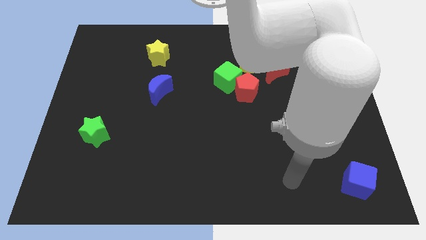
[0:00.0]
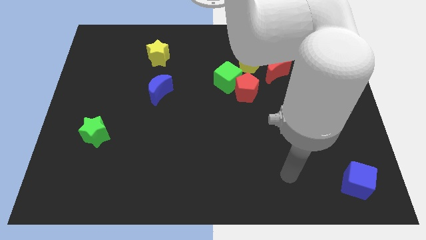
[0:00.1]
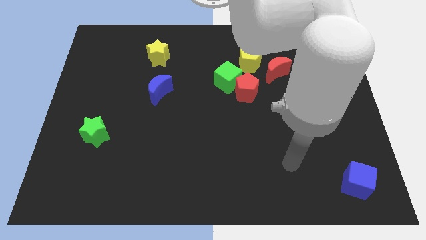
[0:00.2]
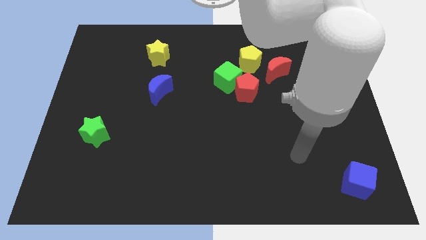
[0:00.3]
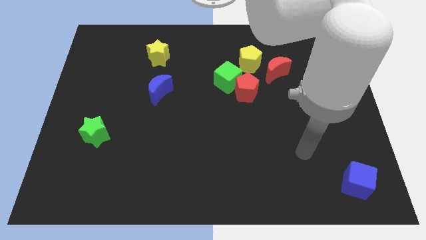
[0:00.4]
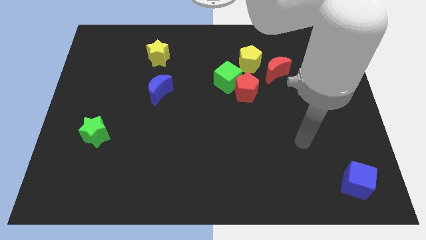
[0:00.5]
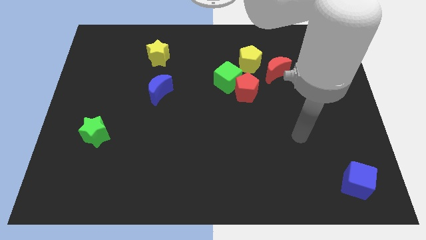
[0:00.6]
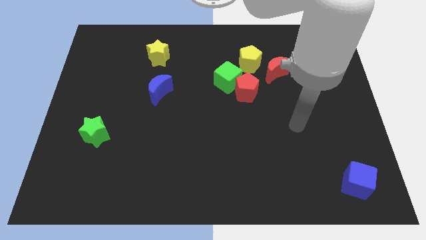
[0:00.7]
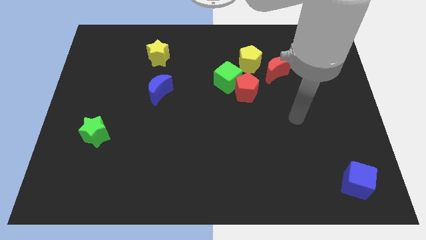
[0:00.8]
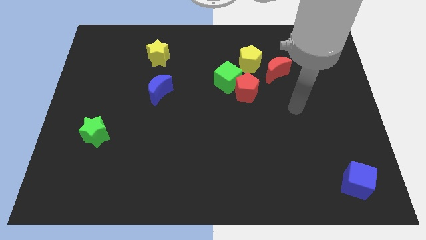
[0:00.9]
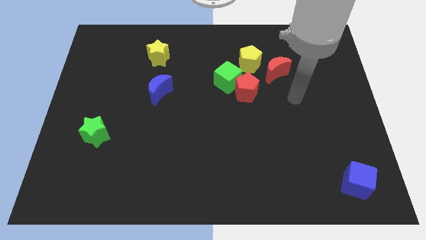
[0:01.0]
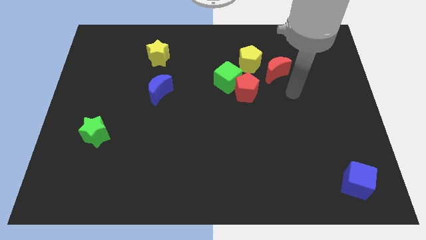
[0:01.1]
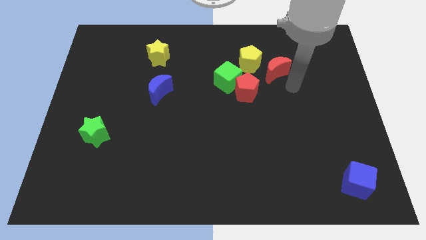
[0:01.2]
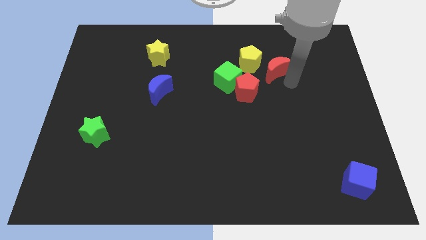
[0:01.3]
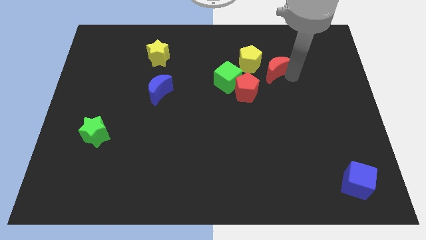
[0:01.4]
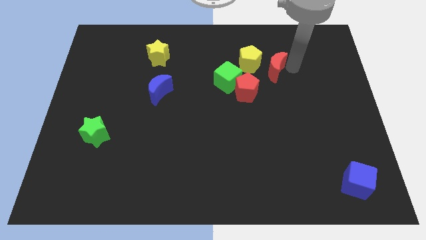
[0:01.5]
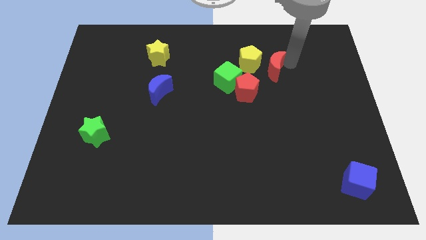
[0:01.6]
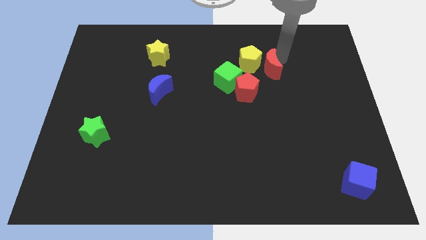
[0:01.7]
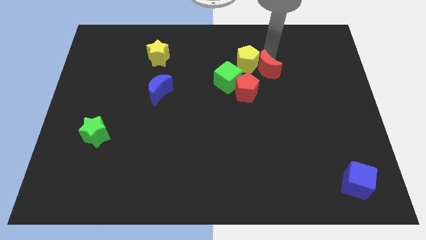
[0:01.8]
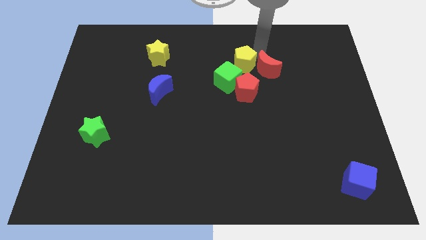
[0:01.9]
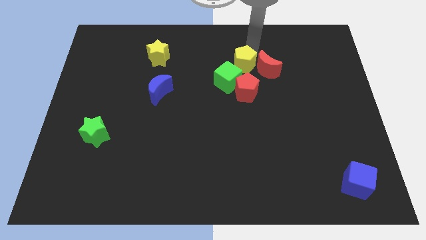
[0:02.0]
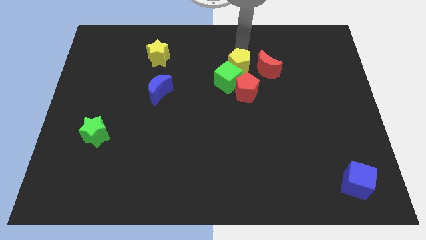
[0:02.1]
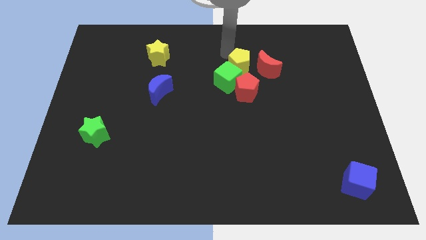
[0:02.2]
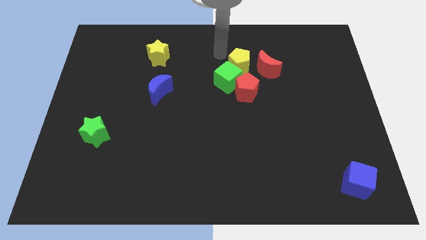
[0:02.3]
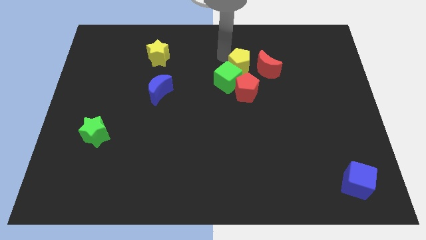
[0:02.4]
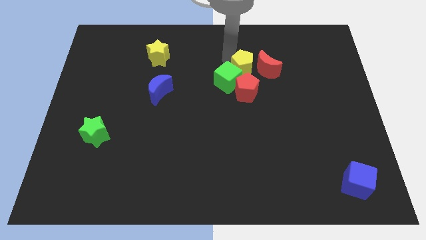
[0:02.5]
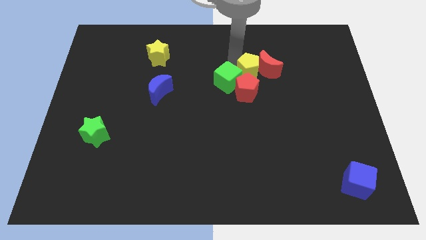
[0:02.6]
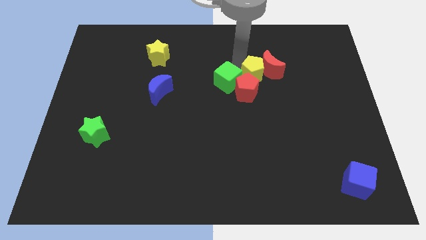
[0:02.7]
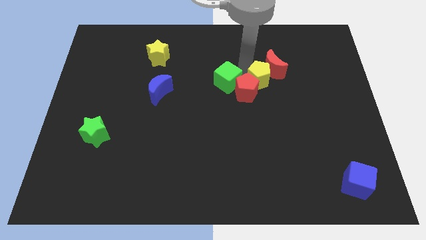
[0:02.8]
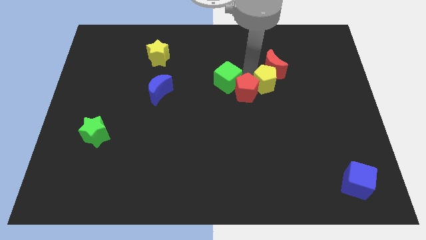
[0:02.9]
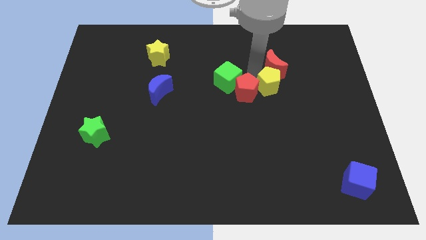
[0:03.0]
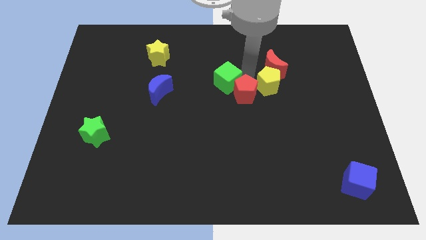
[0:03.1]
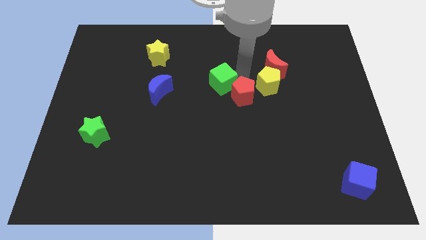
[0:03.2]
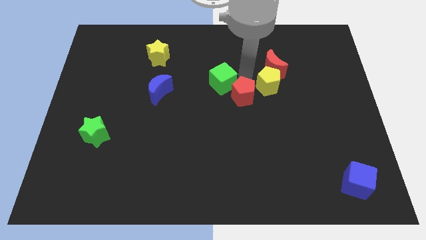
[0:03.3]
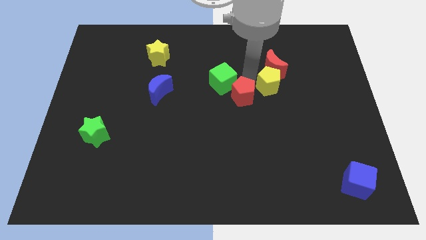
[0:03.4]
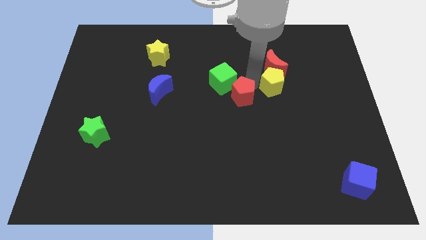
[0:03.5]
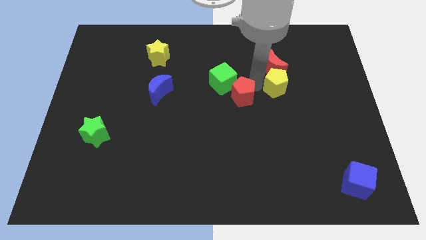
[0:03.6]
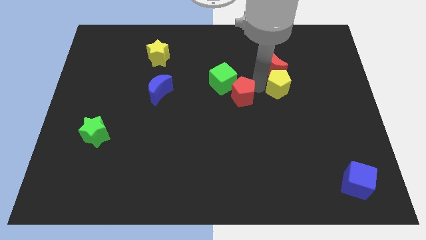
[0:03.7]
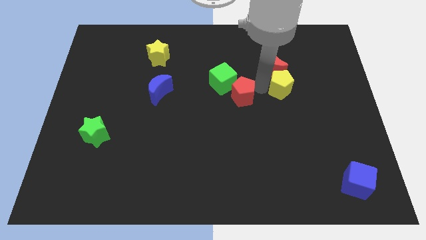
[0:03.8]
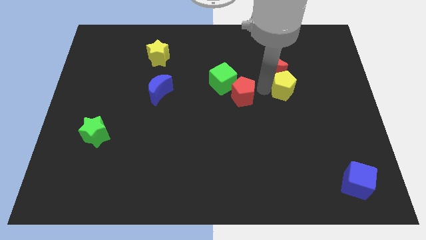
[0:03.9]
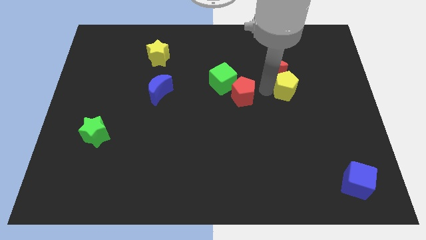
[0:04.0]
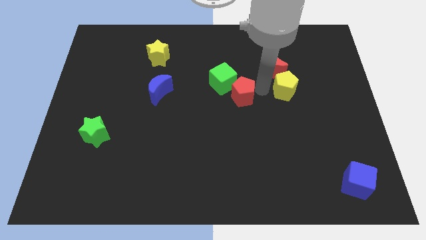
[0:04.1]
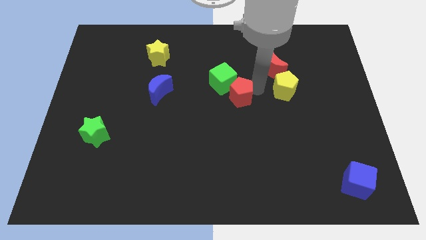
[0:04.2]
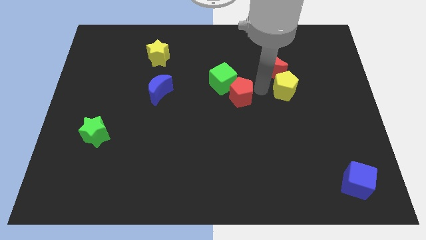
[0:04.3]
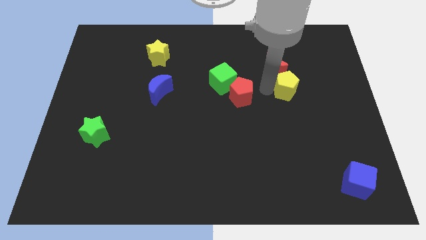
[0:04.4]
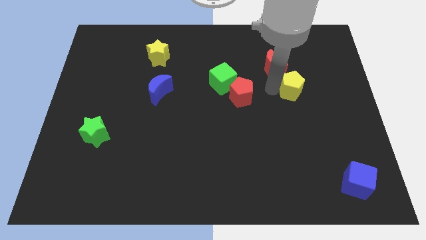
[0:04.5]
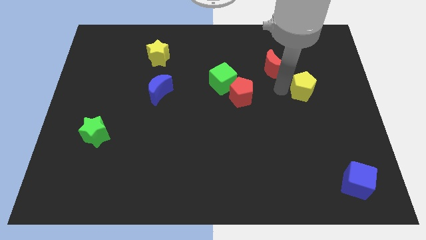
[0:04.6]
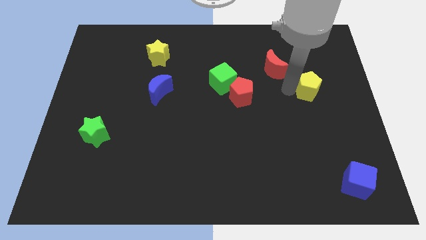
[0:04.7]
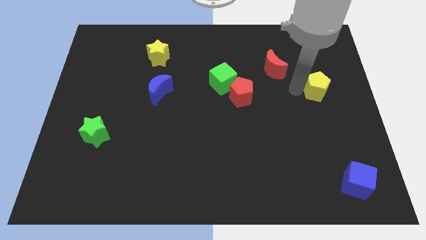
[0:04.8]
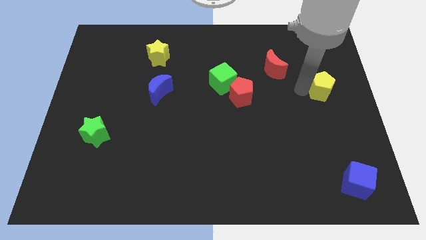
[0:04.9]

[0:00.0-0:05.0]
push the yellow pentagon to the right side
